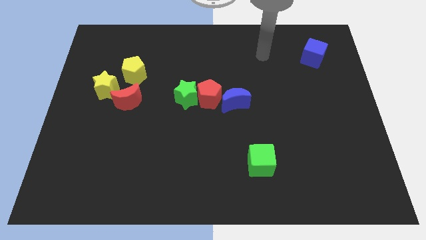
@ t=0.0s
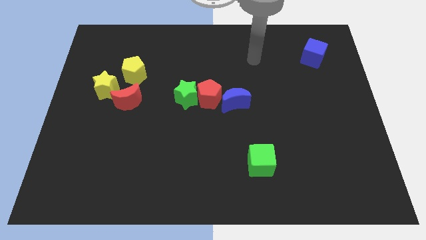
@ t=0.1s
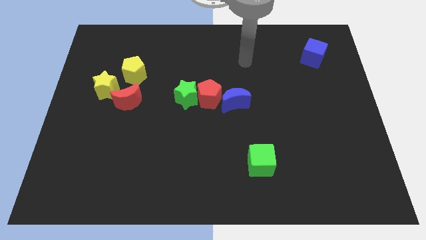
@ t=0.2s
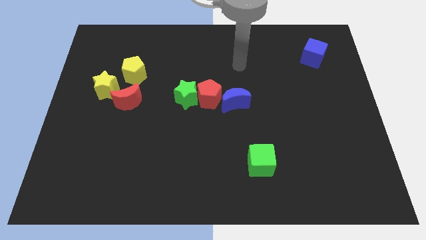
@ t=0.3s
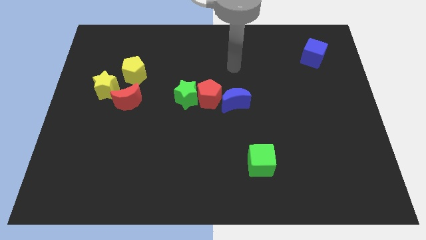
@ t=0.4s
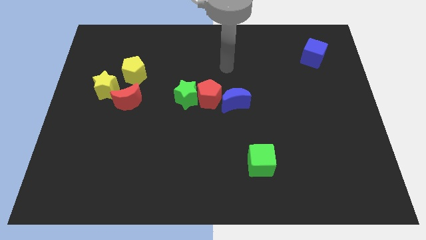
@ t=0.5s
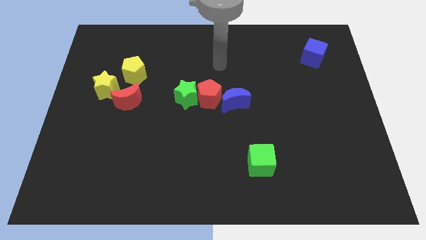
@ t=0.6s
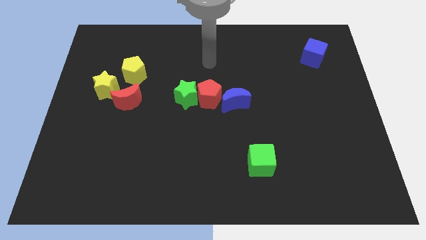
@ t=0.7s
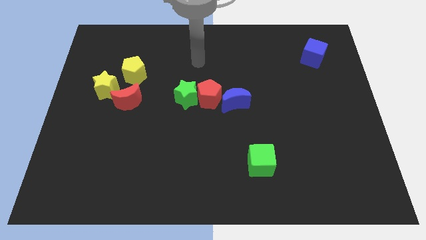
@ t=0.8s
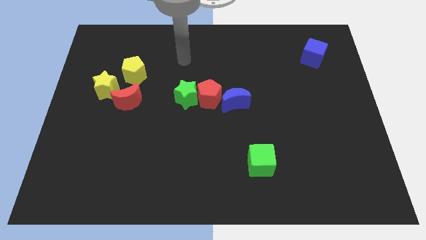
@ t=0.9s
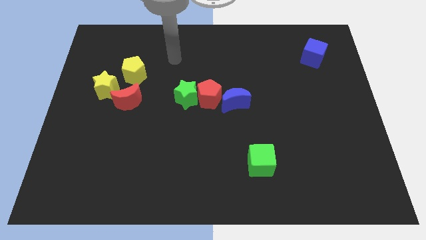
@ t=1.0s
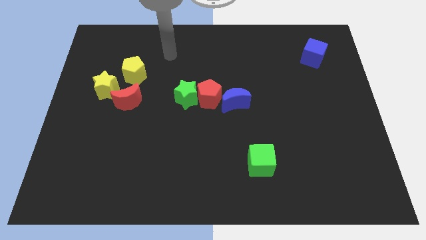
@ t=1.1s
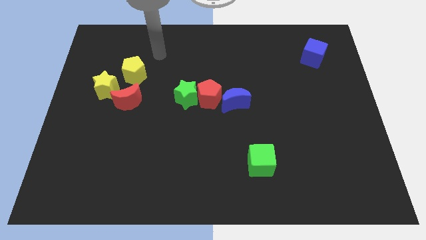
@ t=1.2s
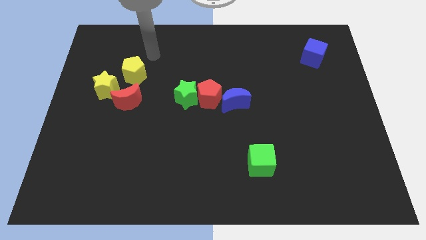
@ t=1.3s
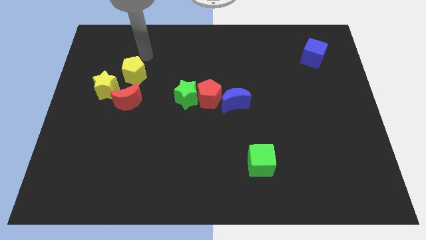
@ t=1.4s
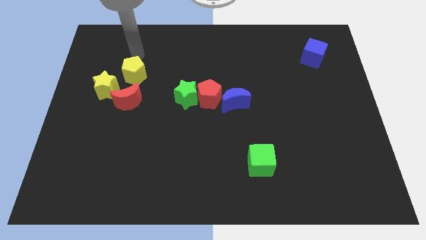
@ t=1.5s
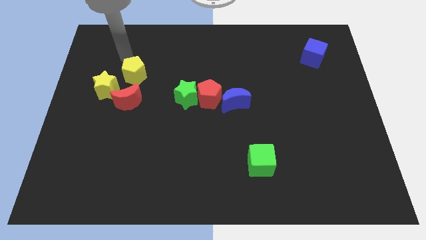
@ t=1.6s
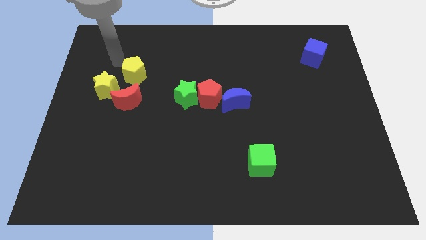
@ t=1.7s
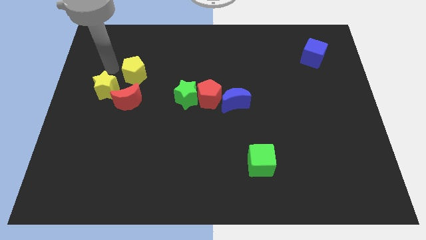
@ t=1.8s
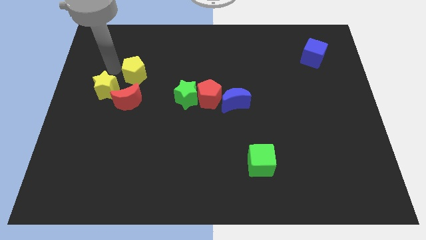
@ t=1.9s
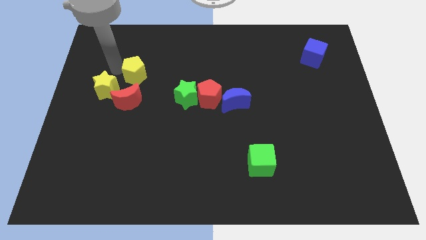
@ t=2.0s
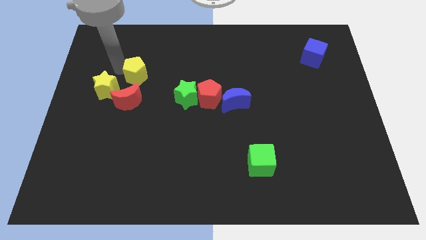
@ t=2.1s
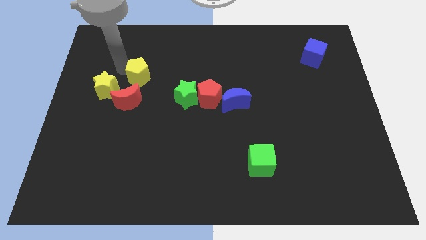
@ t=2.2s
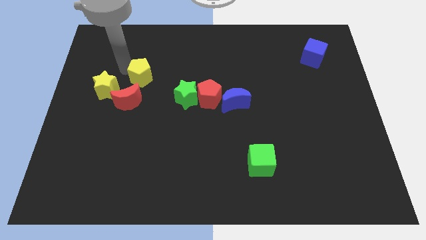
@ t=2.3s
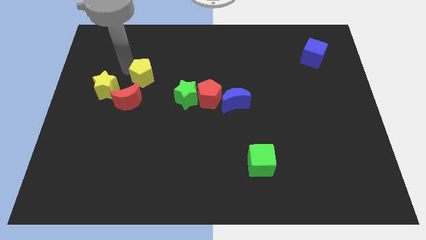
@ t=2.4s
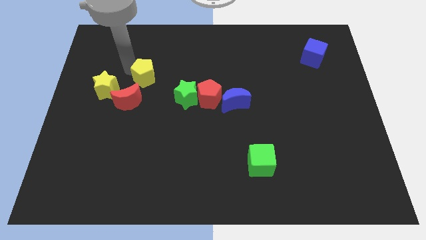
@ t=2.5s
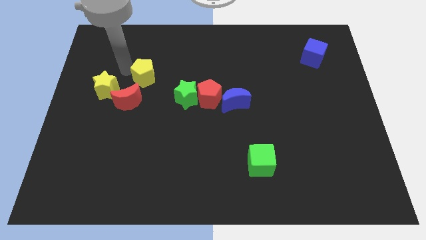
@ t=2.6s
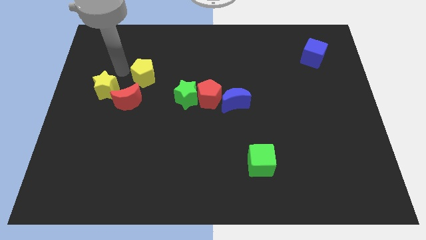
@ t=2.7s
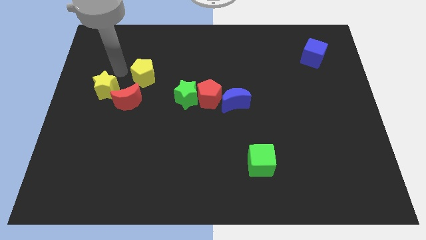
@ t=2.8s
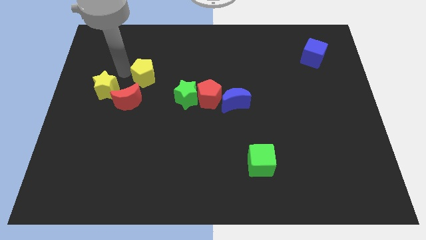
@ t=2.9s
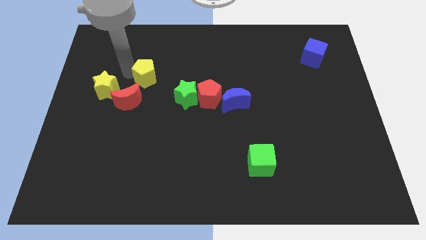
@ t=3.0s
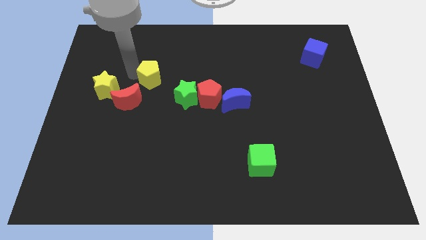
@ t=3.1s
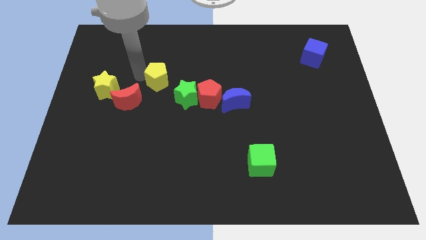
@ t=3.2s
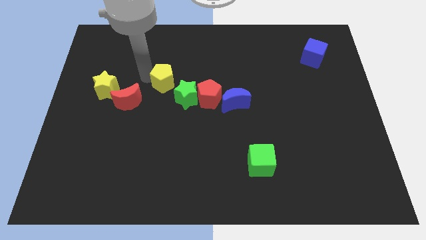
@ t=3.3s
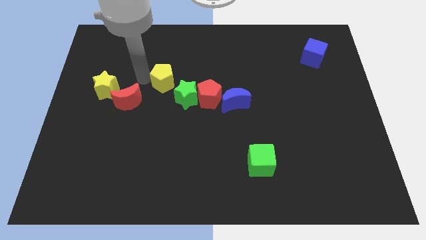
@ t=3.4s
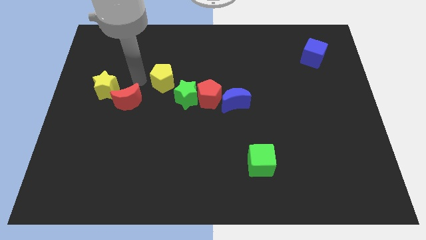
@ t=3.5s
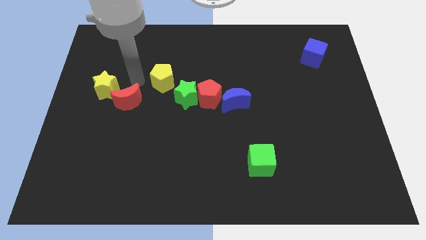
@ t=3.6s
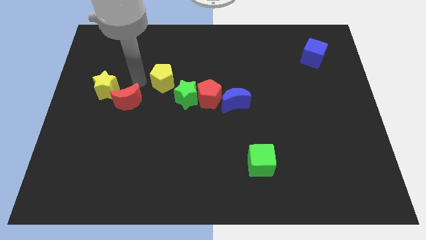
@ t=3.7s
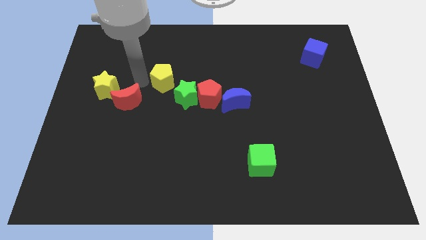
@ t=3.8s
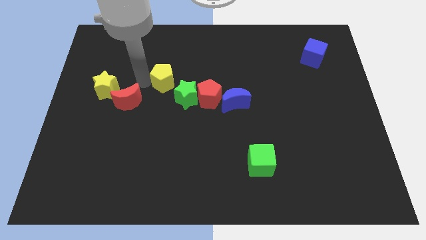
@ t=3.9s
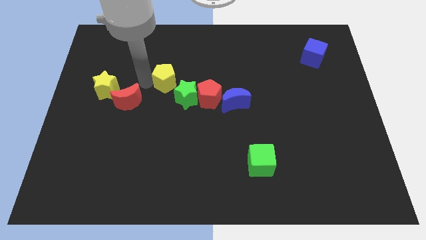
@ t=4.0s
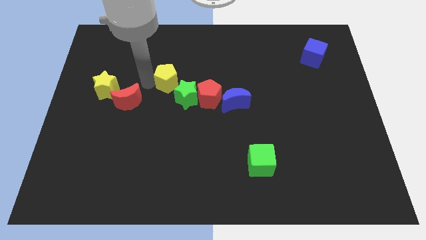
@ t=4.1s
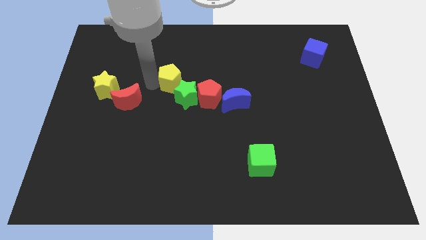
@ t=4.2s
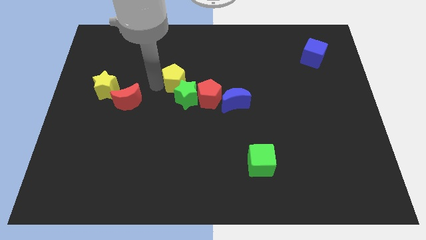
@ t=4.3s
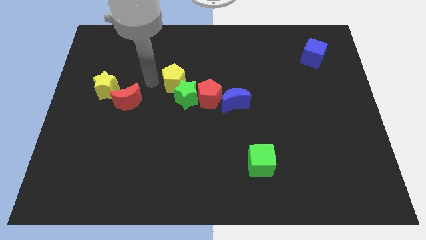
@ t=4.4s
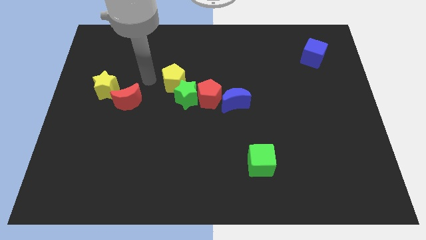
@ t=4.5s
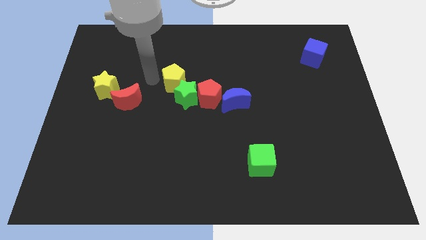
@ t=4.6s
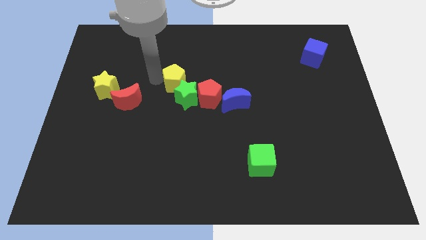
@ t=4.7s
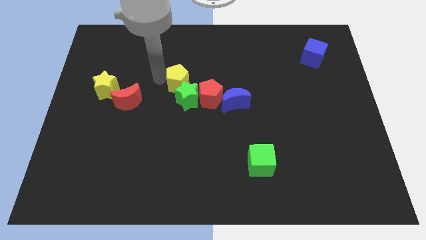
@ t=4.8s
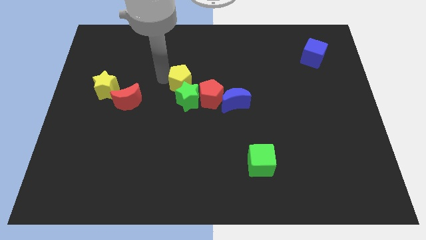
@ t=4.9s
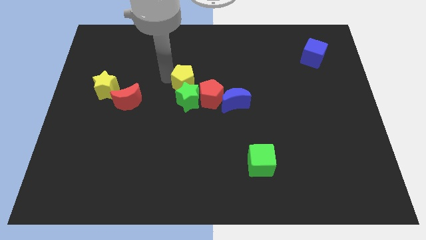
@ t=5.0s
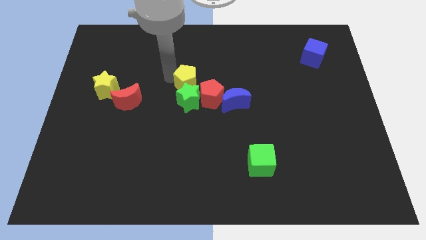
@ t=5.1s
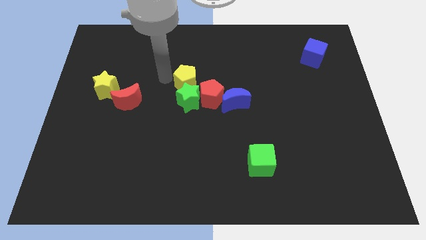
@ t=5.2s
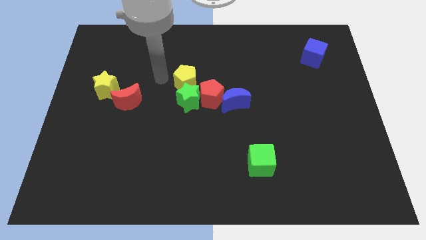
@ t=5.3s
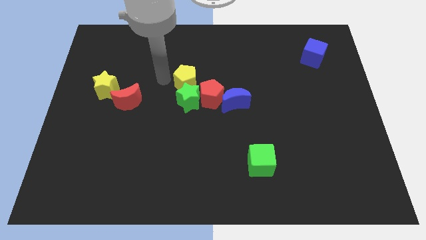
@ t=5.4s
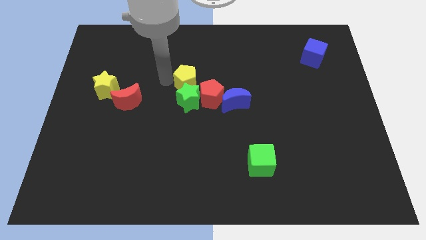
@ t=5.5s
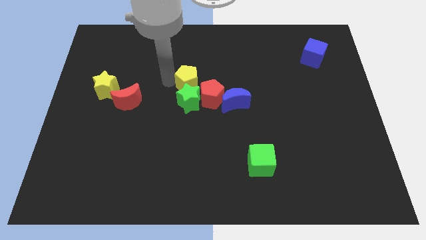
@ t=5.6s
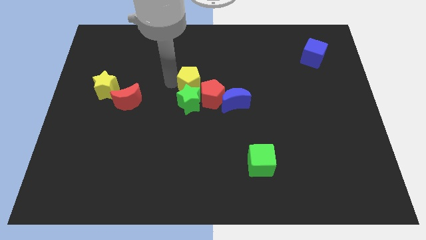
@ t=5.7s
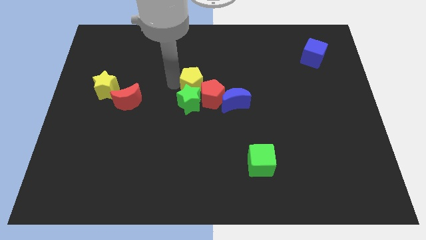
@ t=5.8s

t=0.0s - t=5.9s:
push the yellow pentagon to the top left side of the blue moon

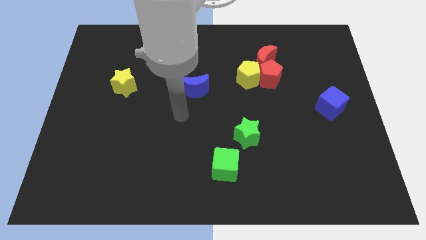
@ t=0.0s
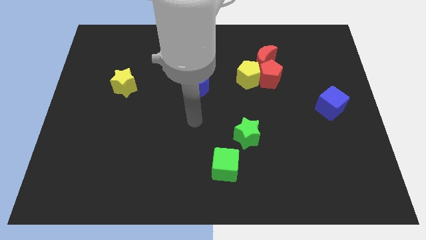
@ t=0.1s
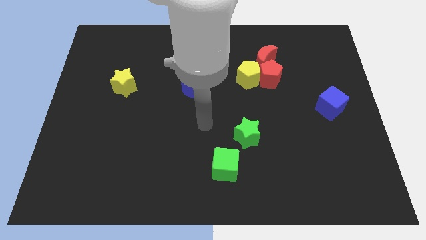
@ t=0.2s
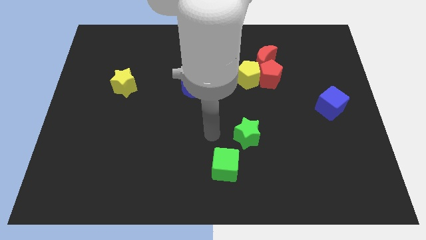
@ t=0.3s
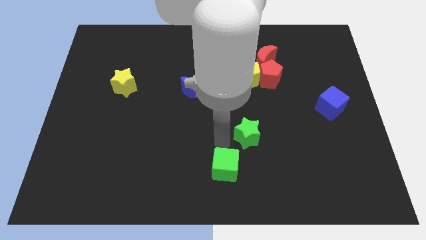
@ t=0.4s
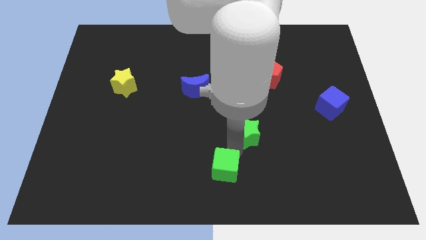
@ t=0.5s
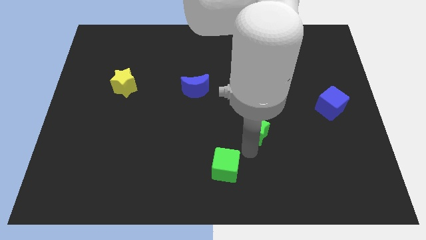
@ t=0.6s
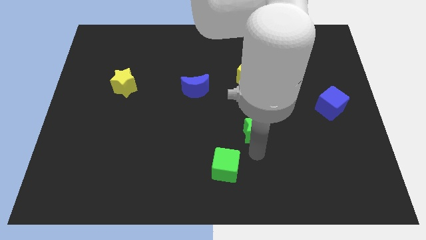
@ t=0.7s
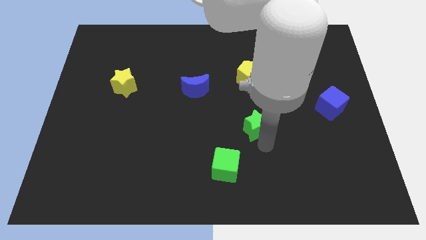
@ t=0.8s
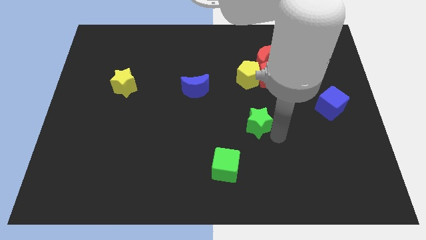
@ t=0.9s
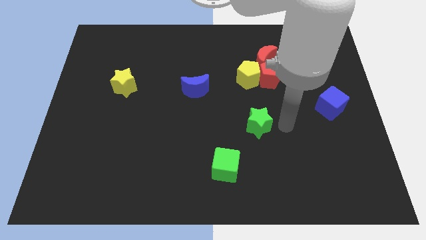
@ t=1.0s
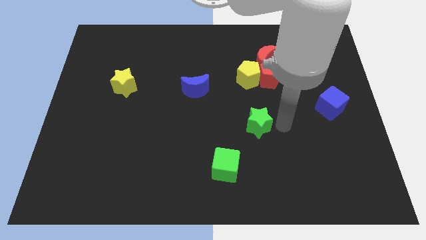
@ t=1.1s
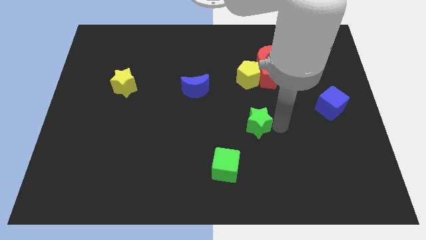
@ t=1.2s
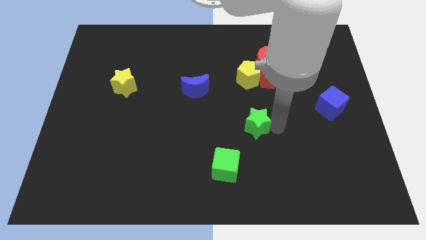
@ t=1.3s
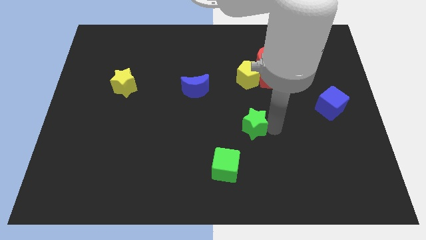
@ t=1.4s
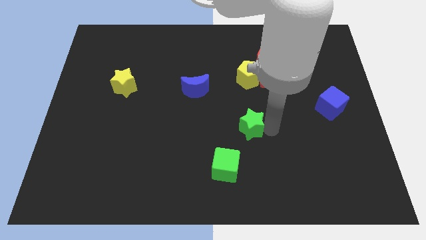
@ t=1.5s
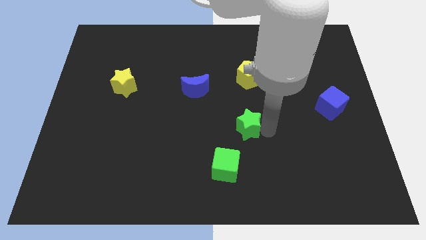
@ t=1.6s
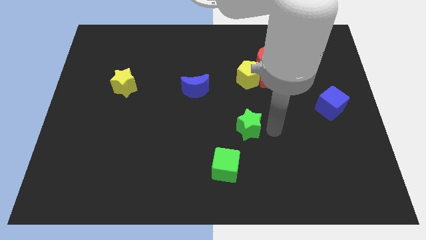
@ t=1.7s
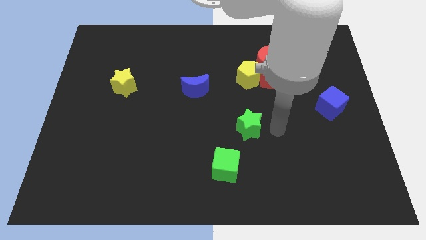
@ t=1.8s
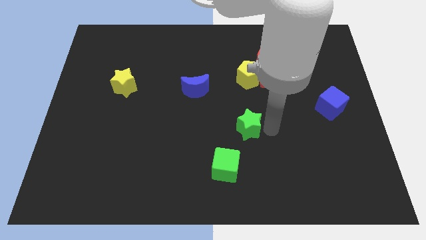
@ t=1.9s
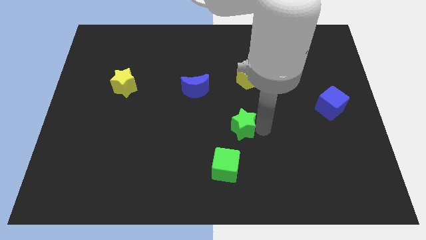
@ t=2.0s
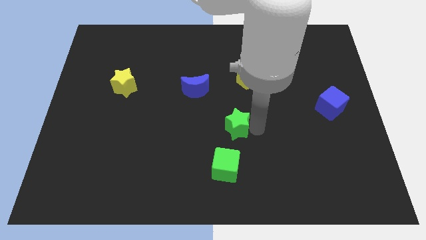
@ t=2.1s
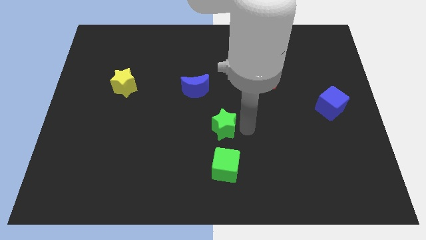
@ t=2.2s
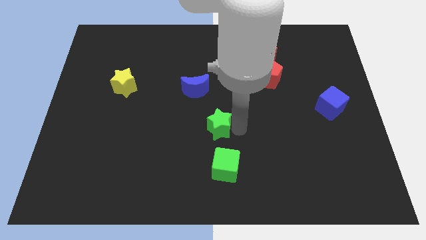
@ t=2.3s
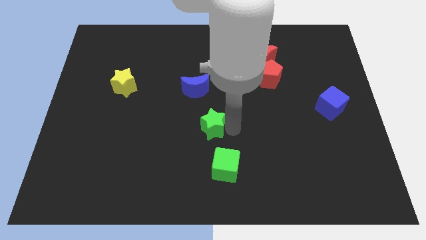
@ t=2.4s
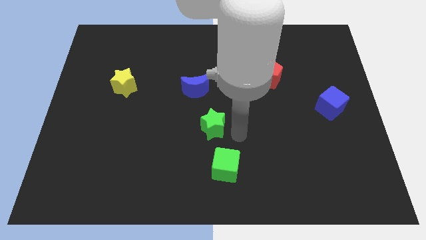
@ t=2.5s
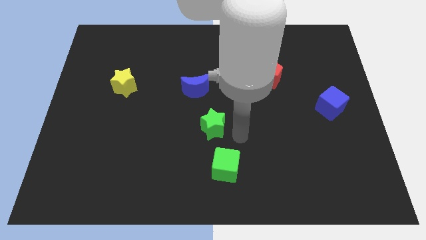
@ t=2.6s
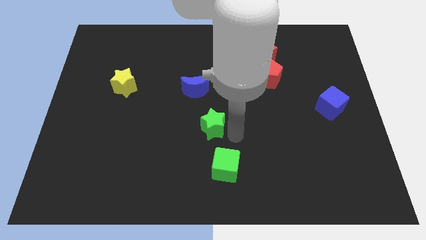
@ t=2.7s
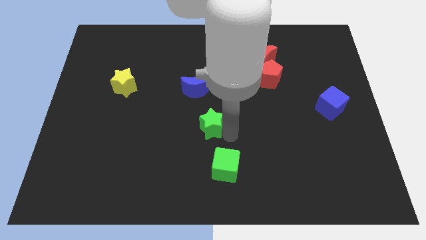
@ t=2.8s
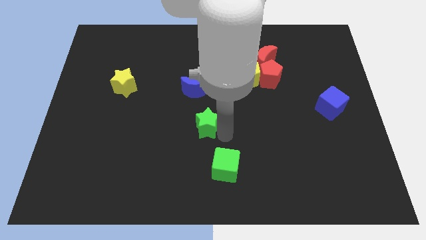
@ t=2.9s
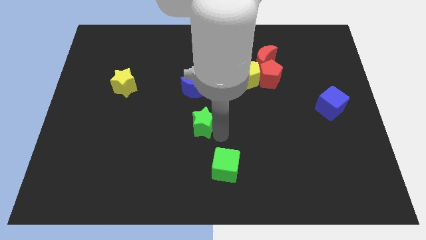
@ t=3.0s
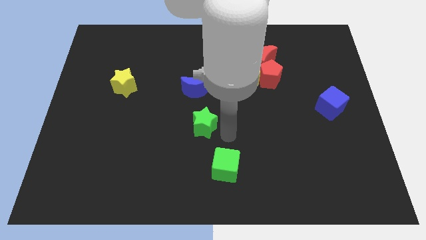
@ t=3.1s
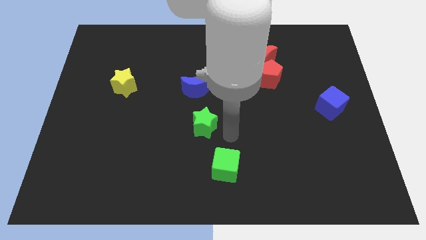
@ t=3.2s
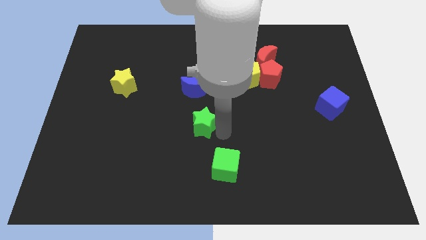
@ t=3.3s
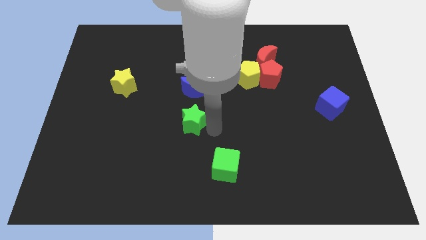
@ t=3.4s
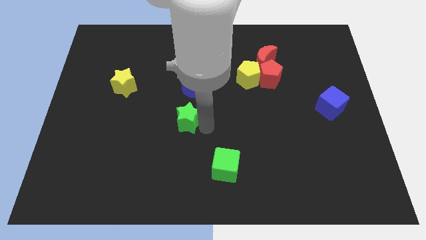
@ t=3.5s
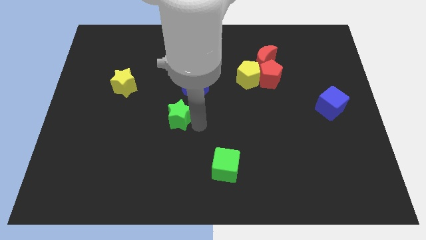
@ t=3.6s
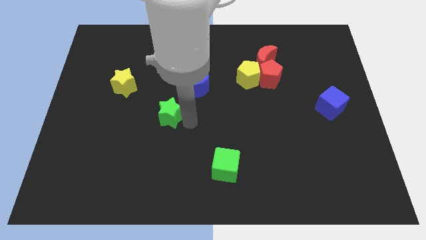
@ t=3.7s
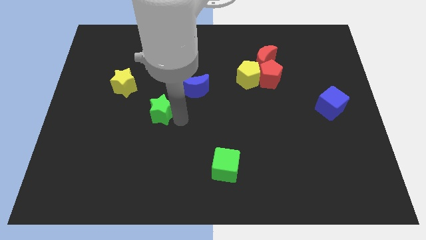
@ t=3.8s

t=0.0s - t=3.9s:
push the green star to the bottom right of the yellow star
